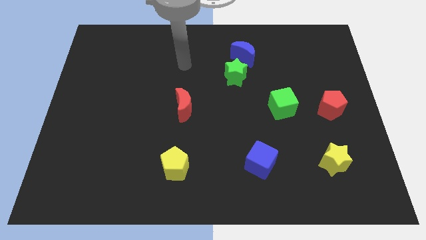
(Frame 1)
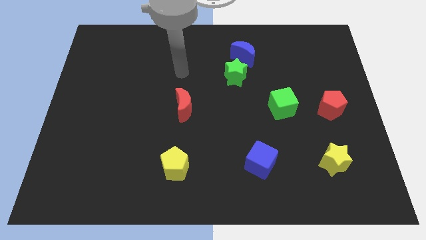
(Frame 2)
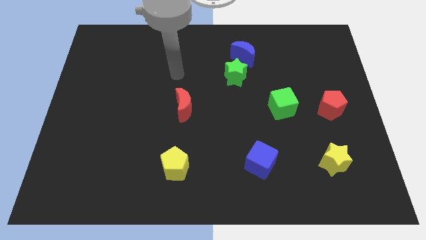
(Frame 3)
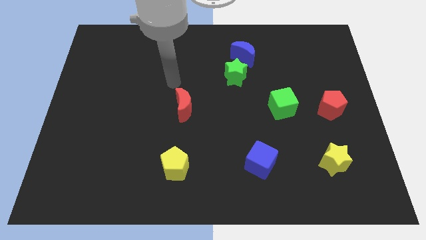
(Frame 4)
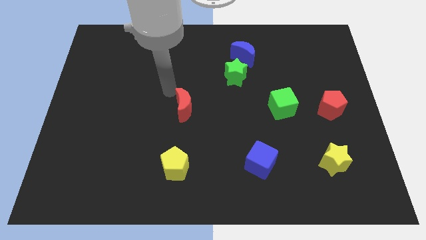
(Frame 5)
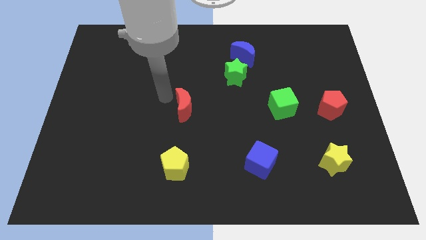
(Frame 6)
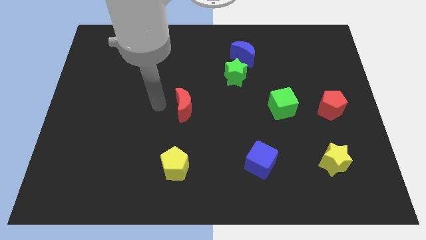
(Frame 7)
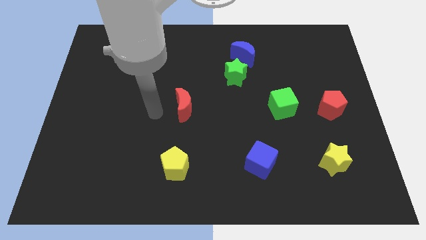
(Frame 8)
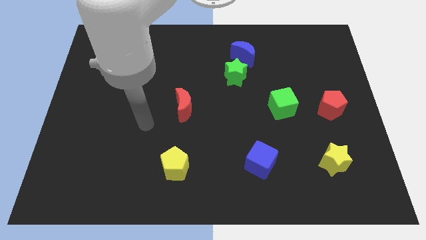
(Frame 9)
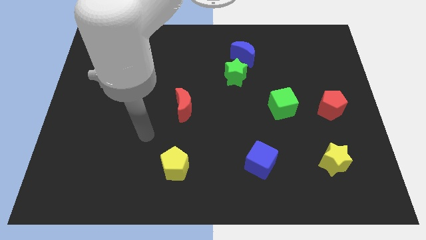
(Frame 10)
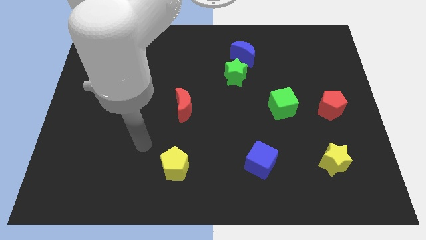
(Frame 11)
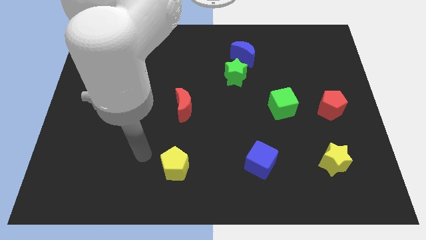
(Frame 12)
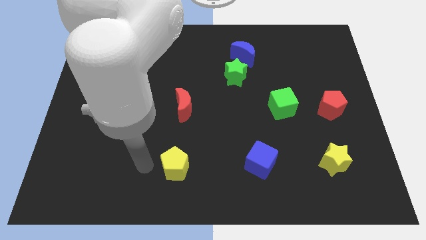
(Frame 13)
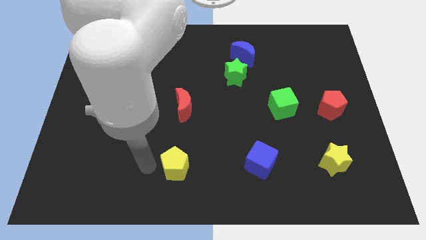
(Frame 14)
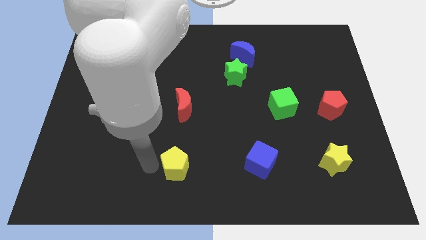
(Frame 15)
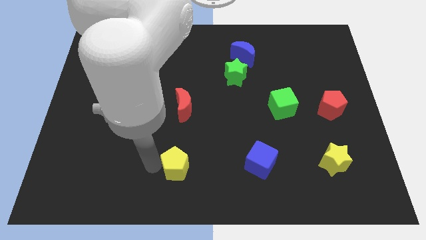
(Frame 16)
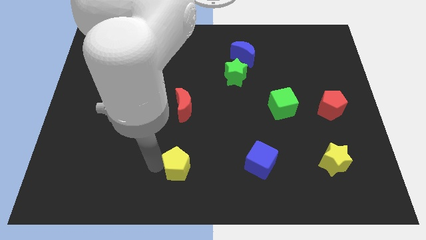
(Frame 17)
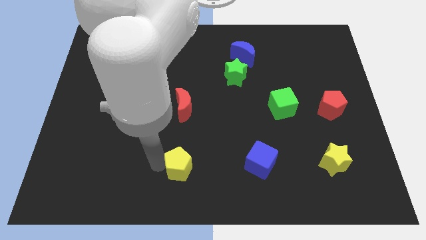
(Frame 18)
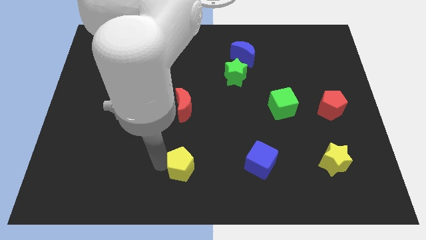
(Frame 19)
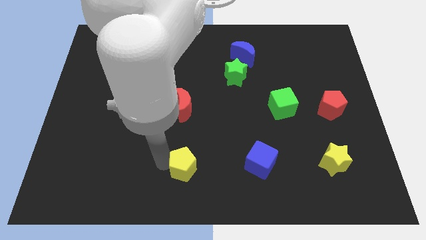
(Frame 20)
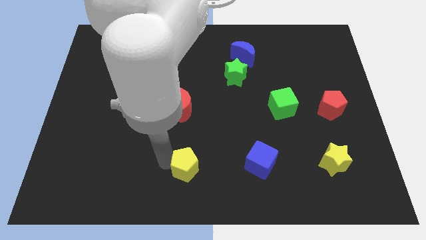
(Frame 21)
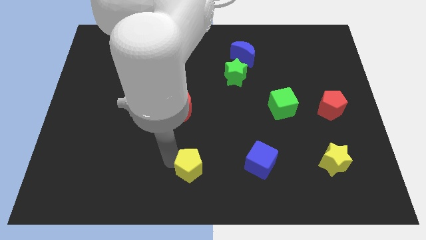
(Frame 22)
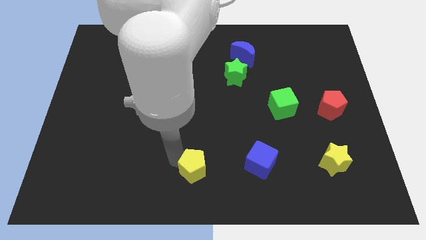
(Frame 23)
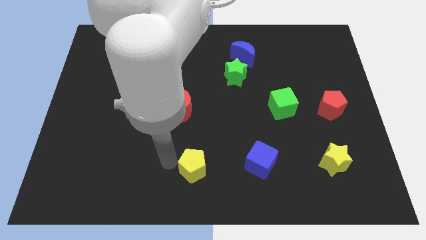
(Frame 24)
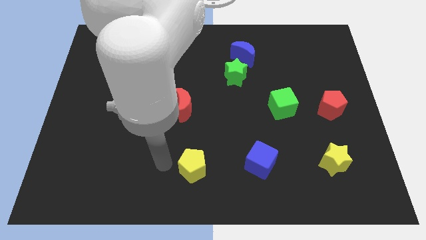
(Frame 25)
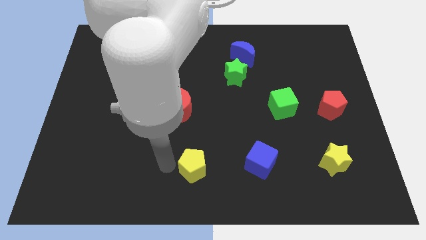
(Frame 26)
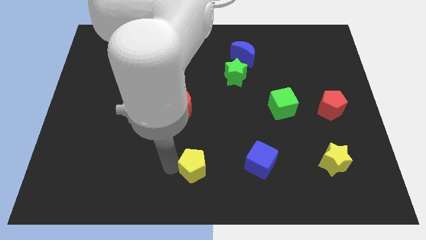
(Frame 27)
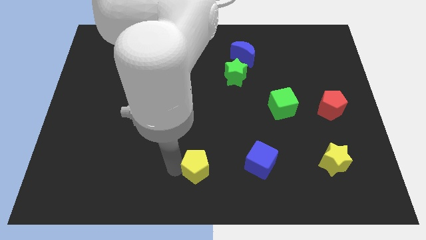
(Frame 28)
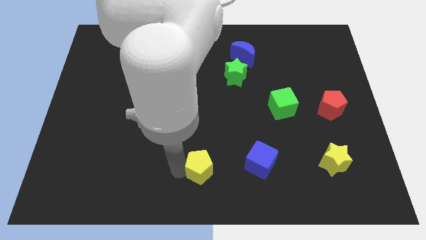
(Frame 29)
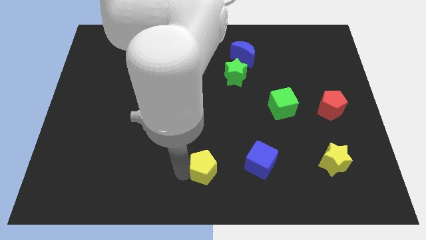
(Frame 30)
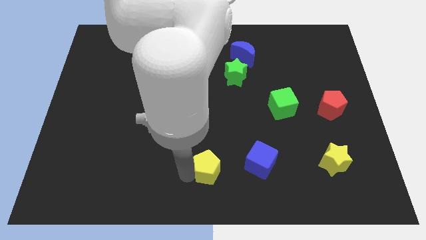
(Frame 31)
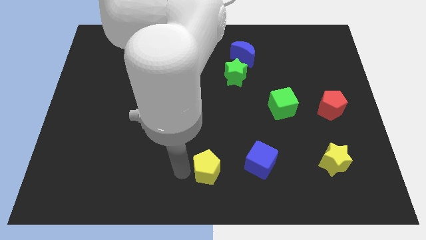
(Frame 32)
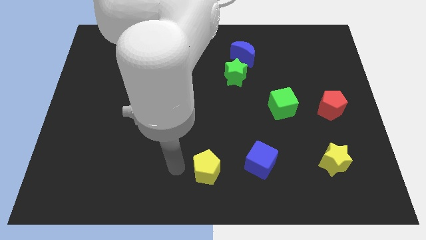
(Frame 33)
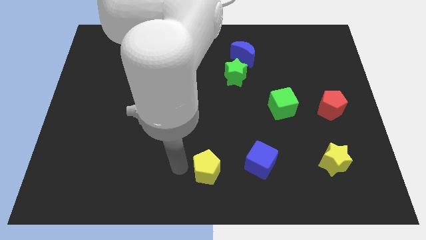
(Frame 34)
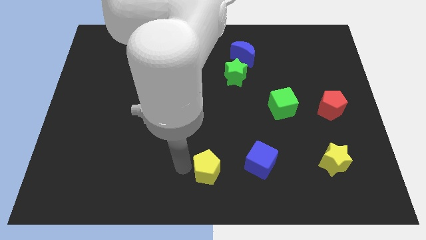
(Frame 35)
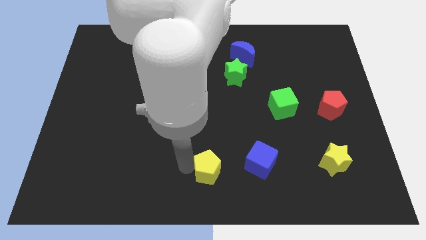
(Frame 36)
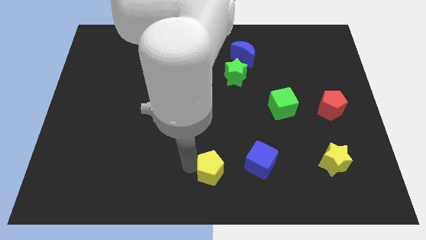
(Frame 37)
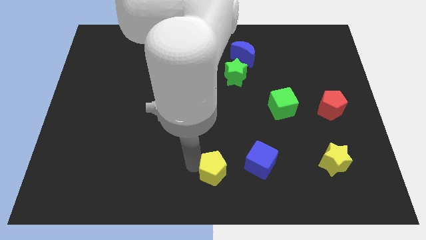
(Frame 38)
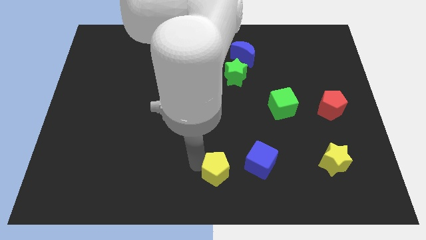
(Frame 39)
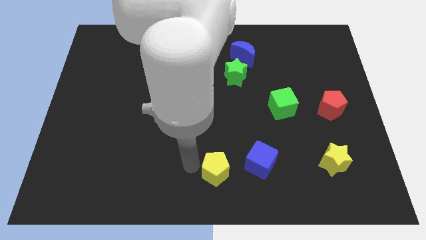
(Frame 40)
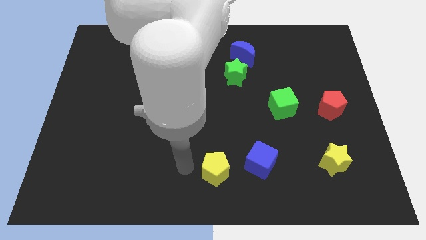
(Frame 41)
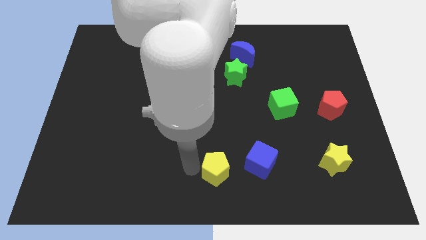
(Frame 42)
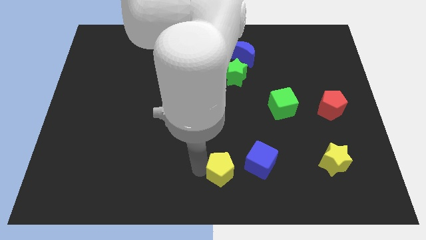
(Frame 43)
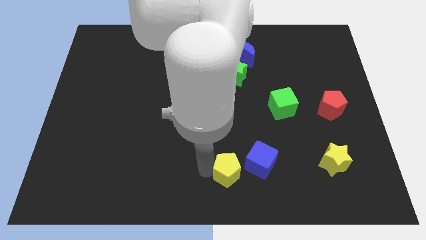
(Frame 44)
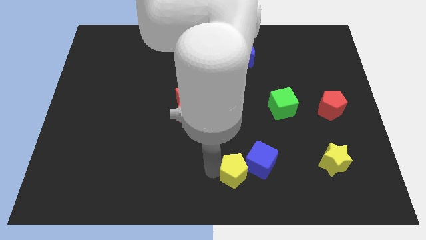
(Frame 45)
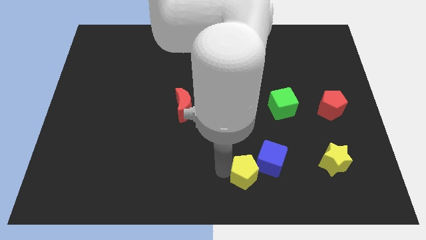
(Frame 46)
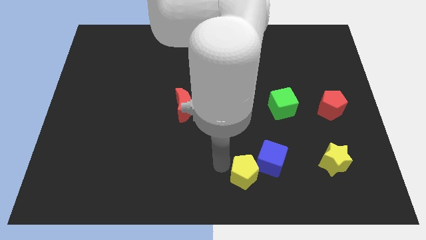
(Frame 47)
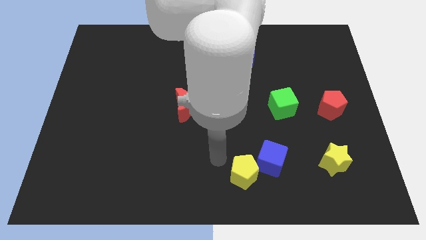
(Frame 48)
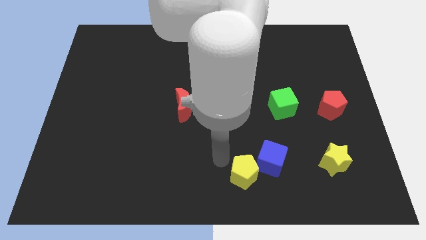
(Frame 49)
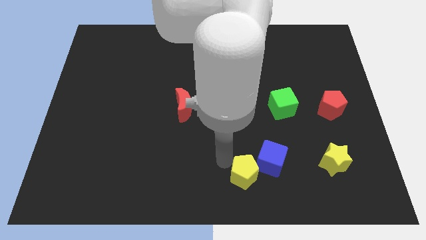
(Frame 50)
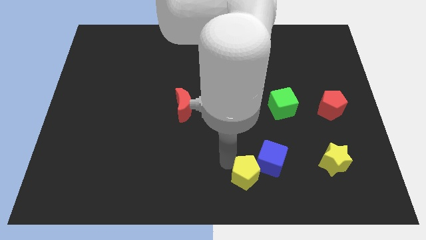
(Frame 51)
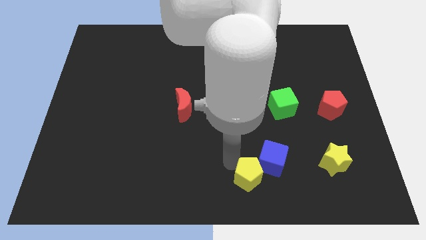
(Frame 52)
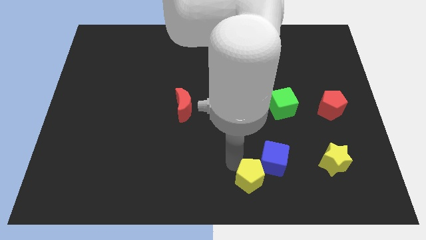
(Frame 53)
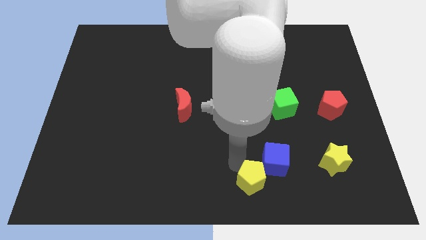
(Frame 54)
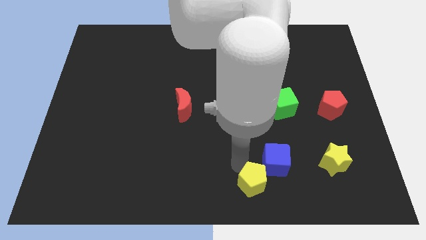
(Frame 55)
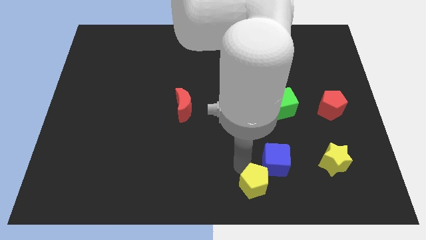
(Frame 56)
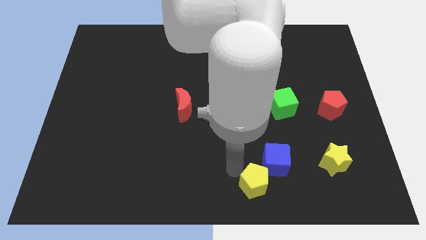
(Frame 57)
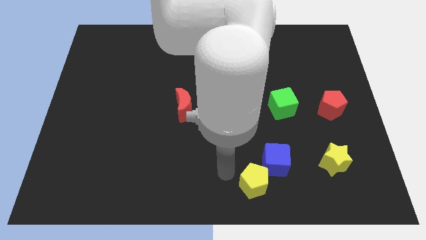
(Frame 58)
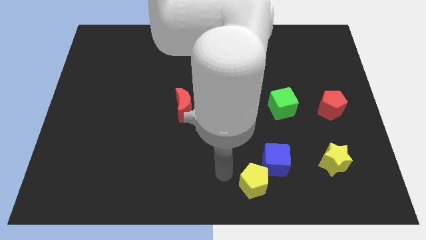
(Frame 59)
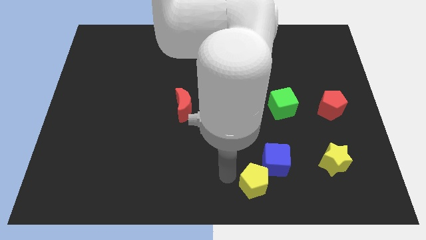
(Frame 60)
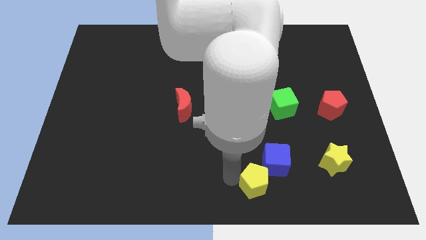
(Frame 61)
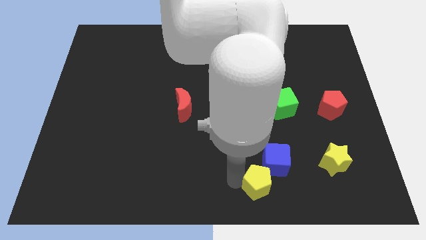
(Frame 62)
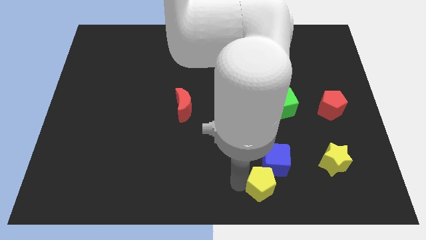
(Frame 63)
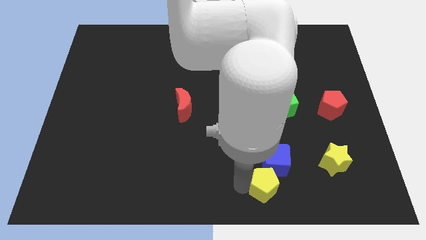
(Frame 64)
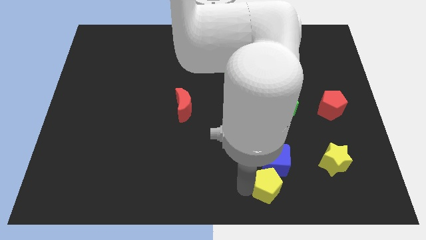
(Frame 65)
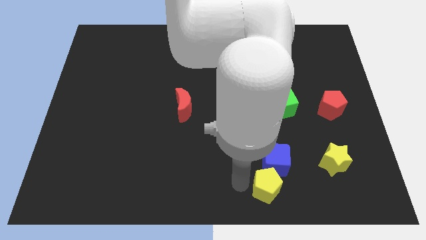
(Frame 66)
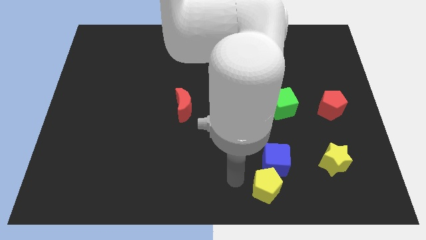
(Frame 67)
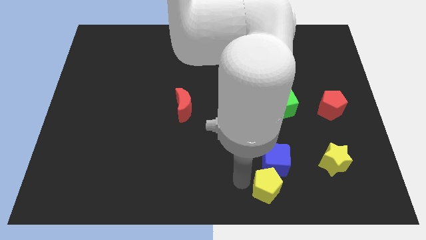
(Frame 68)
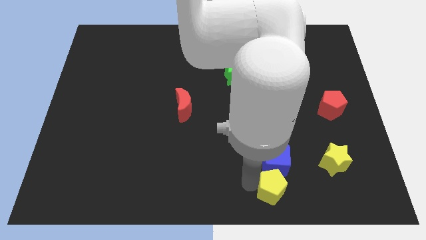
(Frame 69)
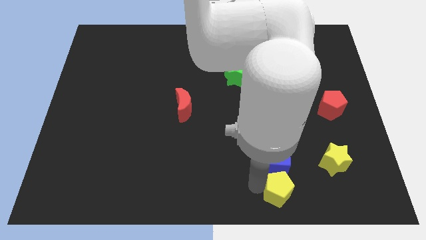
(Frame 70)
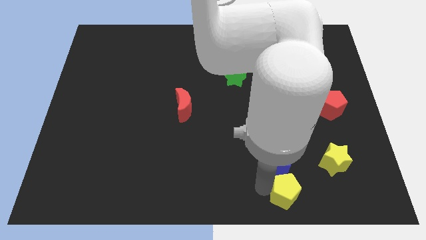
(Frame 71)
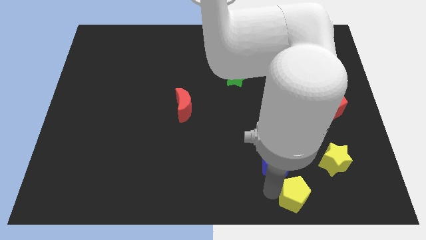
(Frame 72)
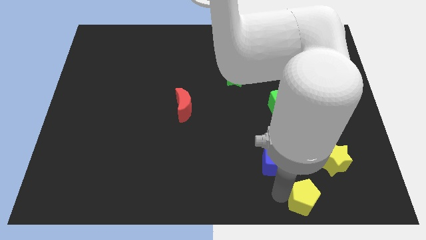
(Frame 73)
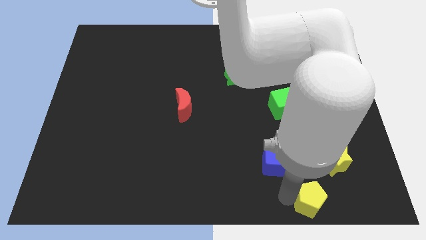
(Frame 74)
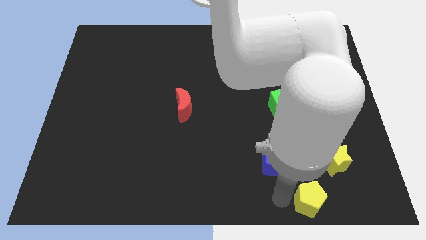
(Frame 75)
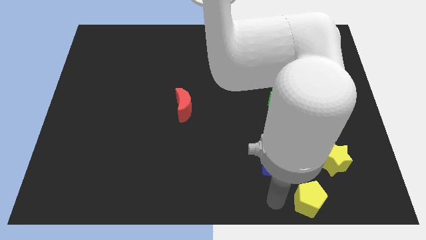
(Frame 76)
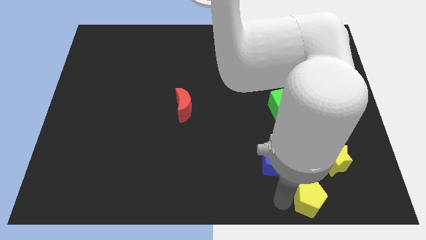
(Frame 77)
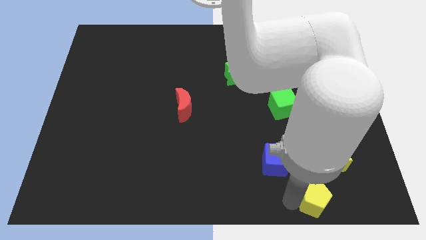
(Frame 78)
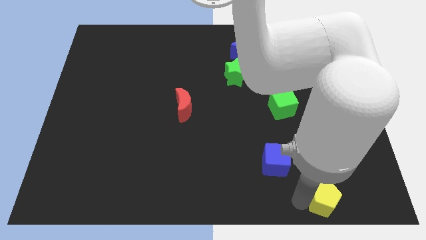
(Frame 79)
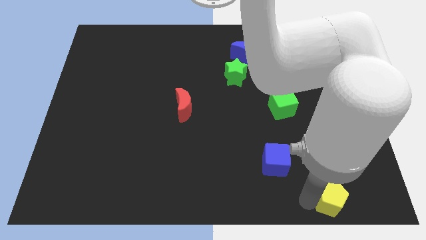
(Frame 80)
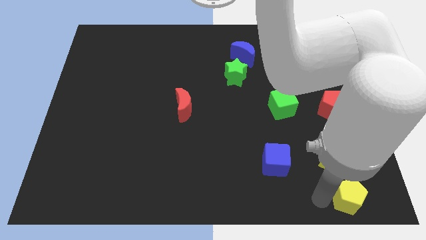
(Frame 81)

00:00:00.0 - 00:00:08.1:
put the yellow pentagon to the bottom right
